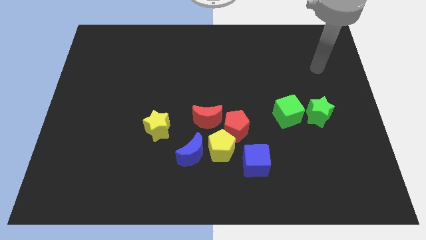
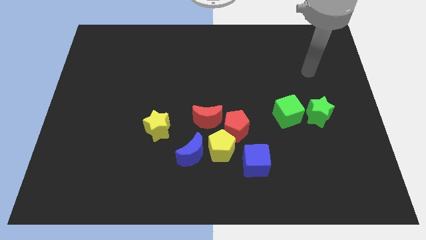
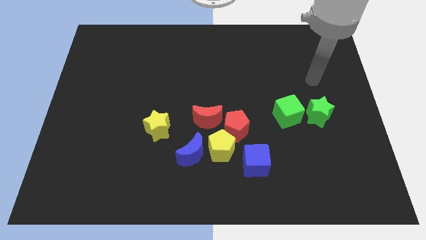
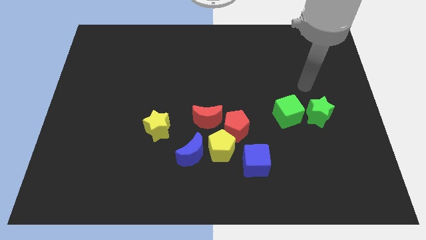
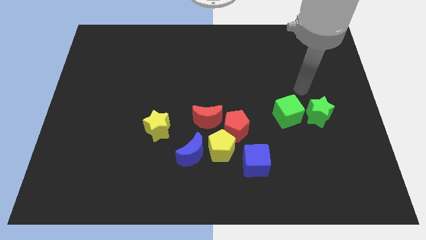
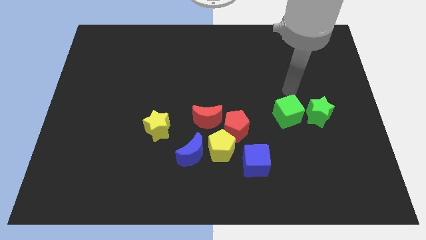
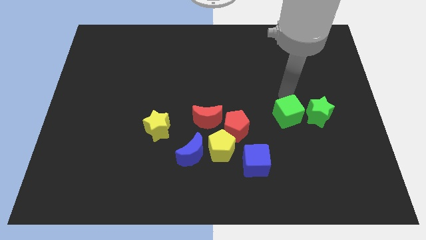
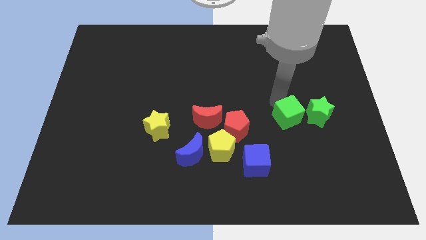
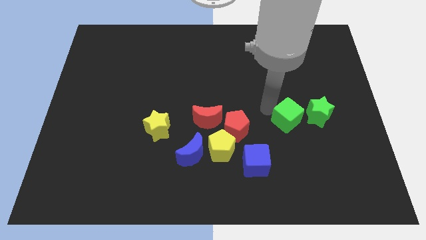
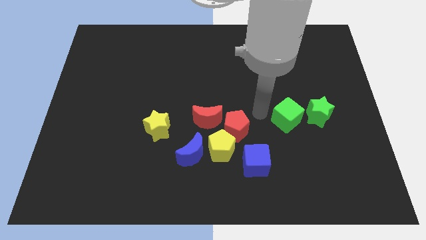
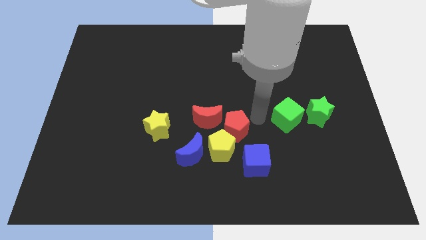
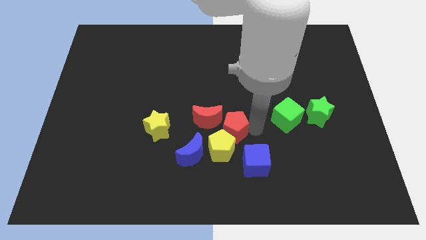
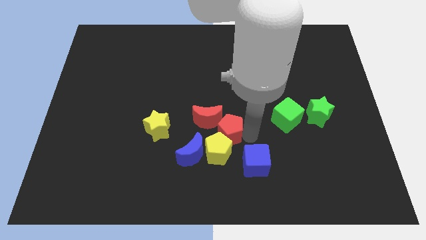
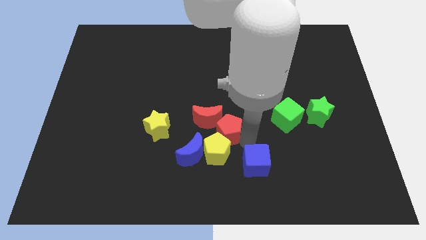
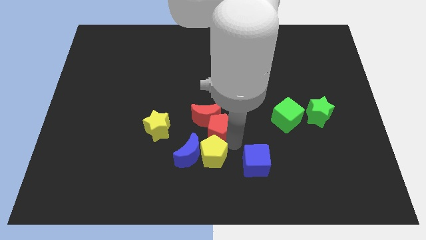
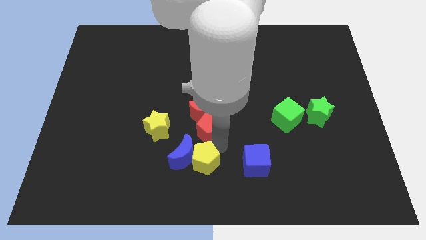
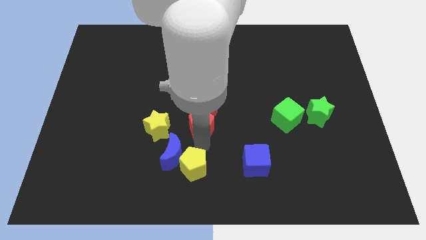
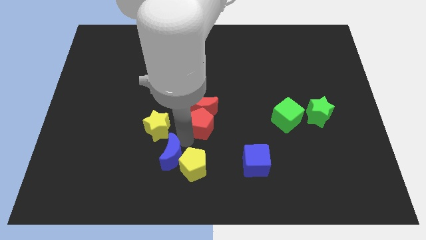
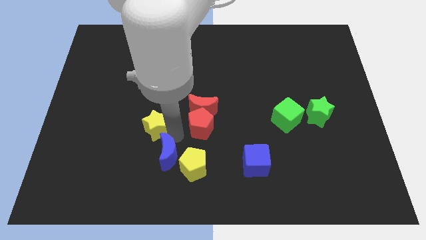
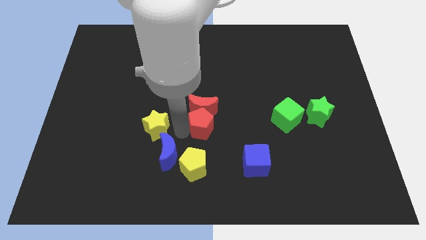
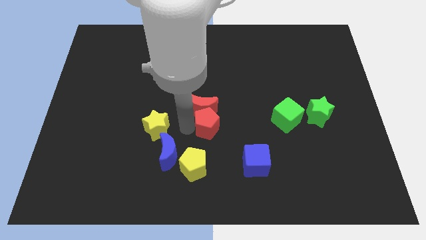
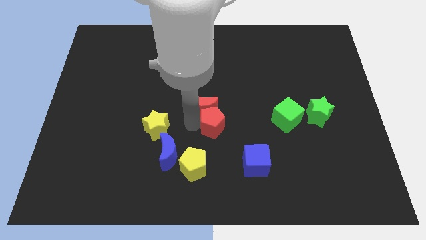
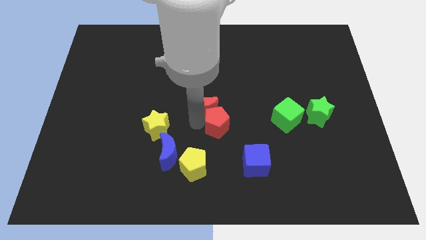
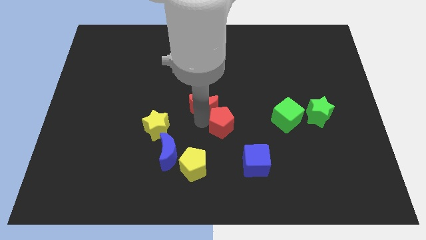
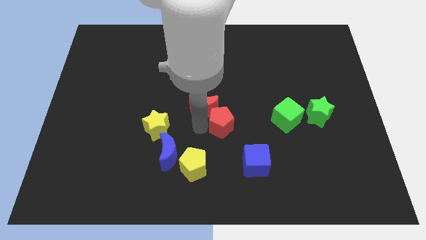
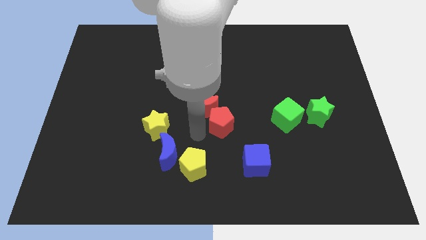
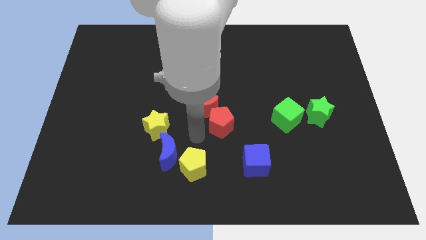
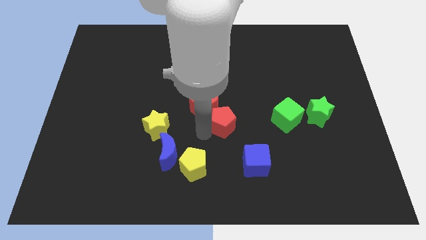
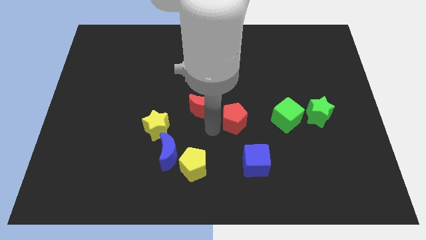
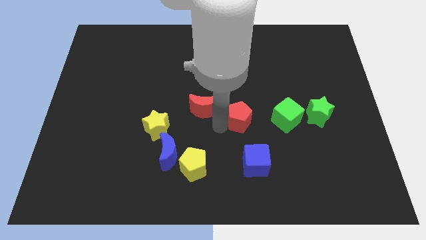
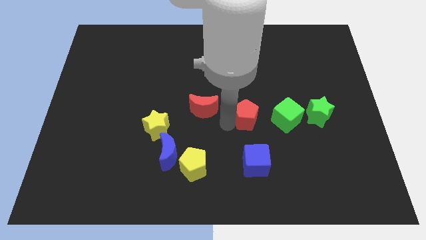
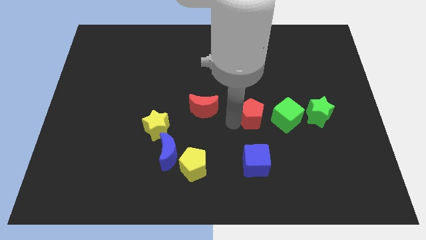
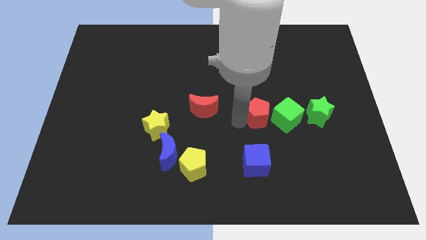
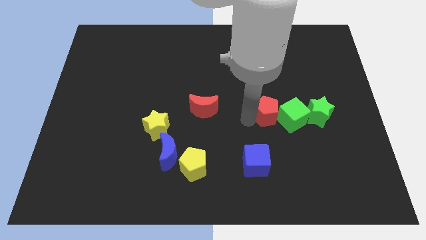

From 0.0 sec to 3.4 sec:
push the red pentagon slightly up and to the right diagonally

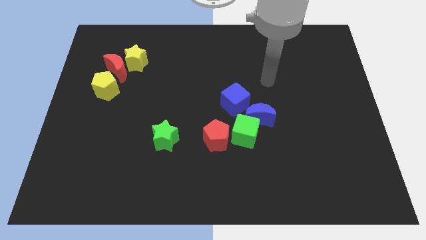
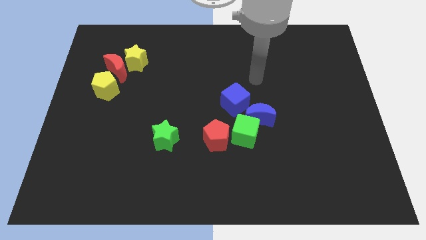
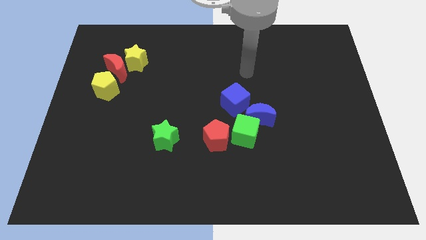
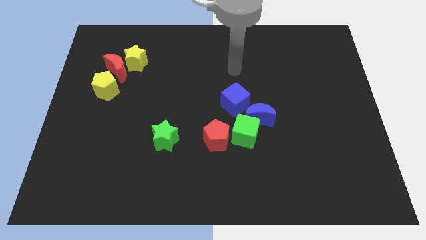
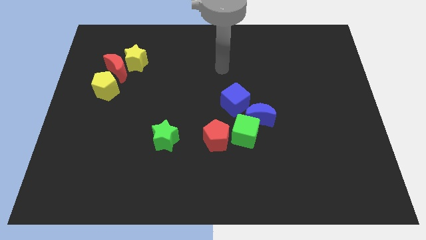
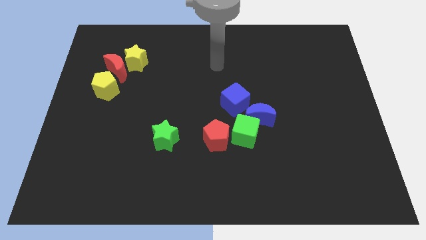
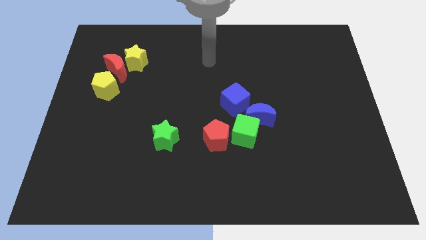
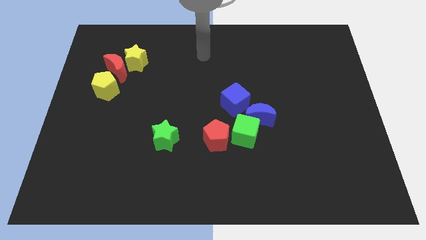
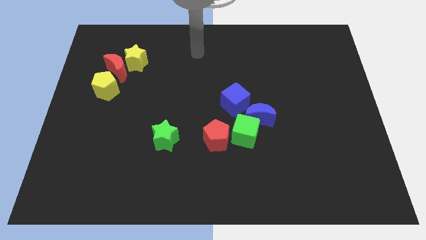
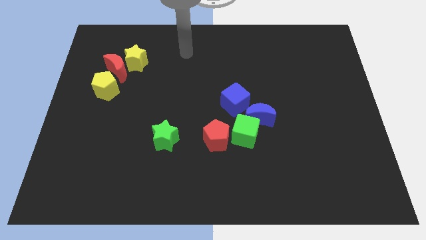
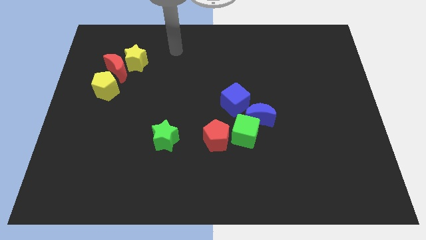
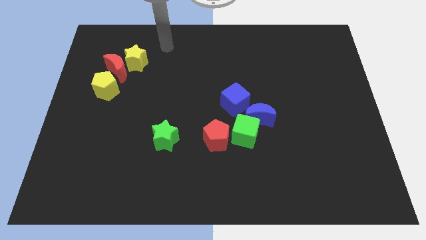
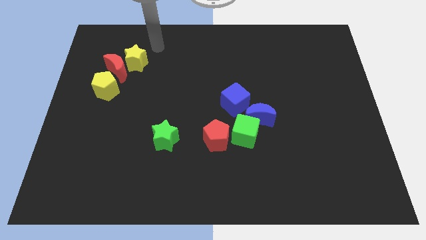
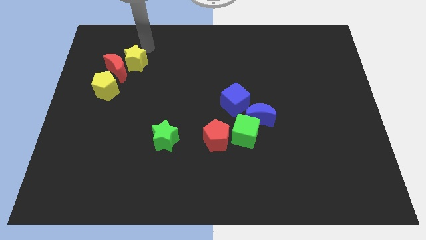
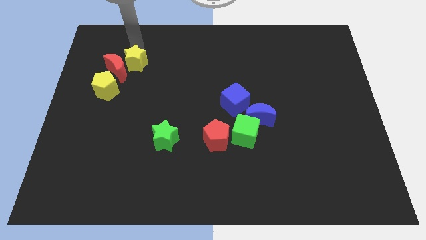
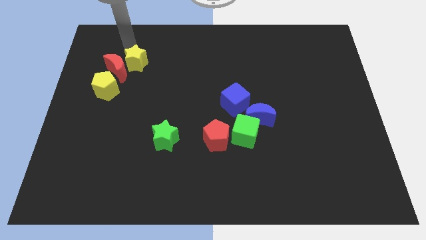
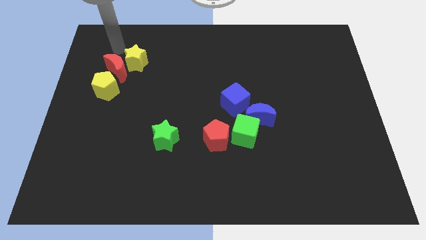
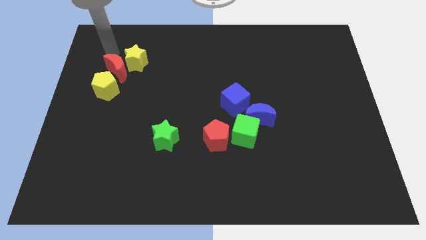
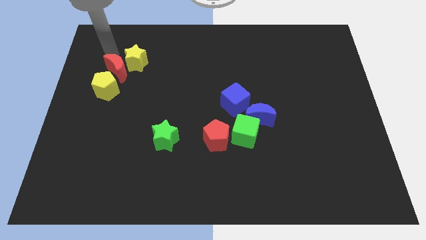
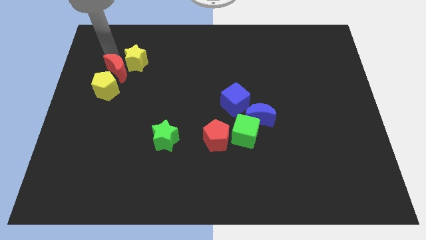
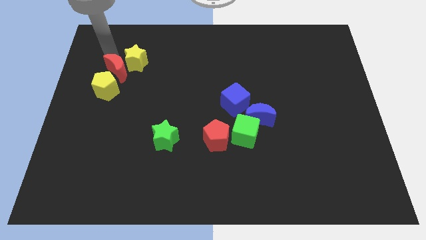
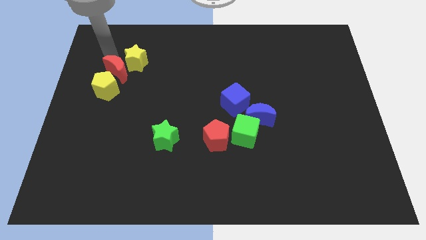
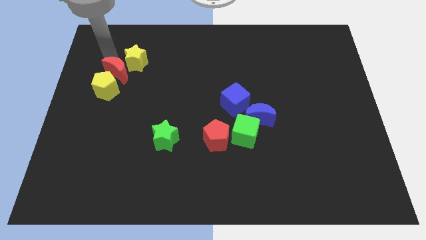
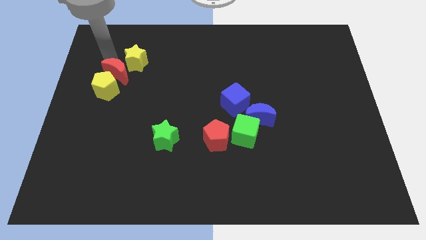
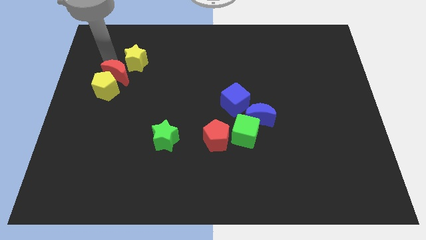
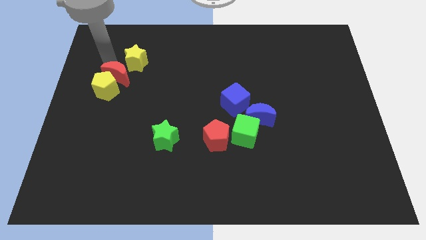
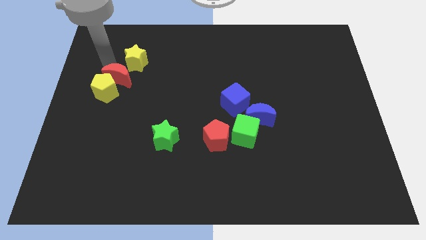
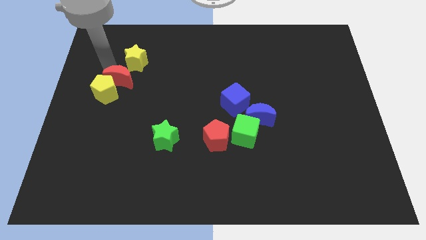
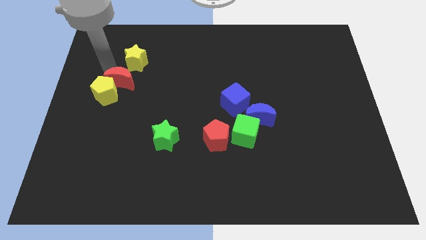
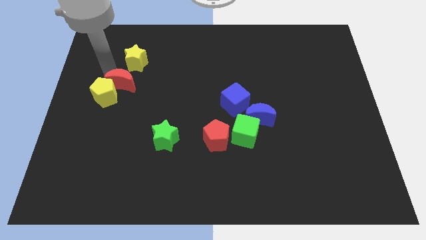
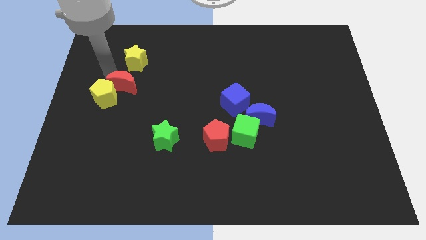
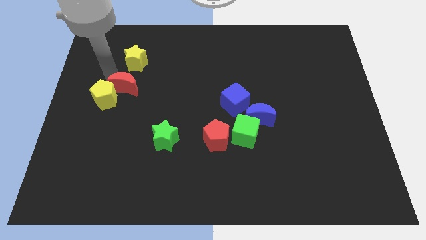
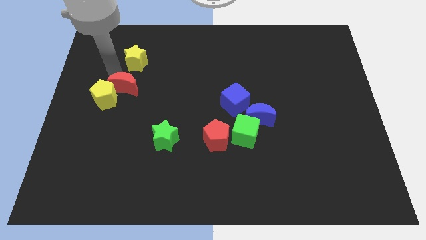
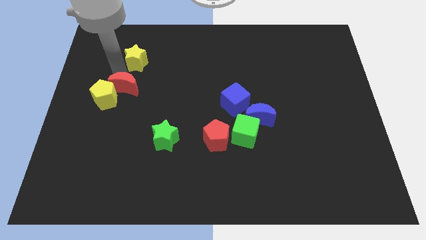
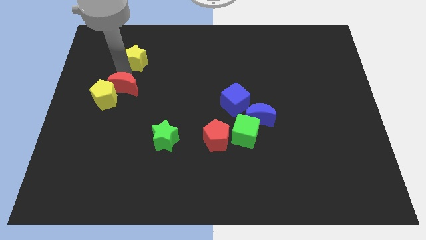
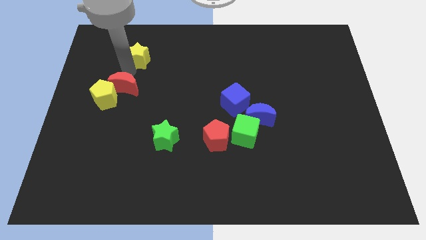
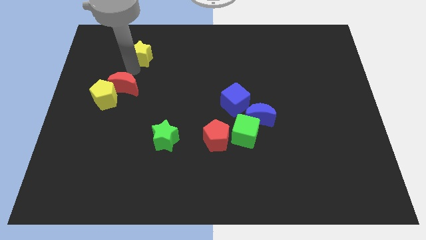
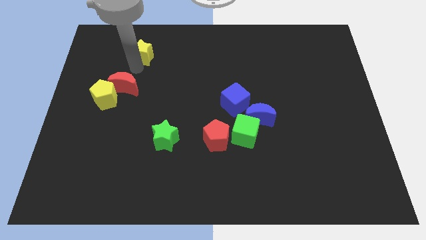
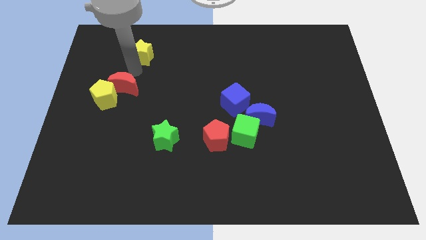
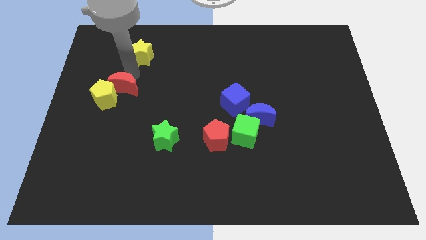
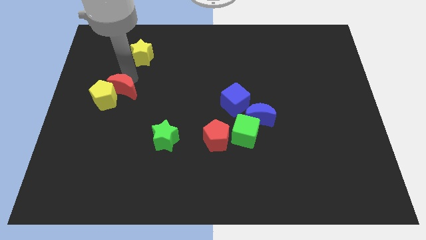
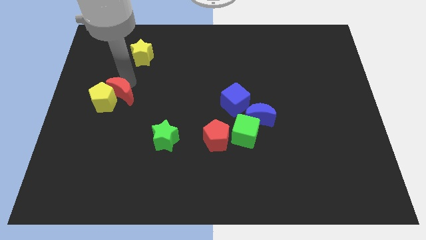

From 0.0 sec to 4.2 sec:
push the red moon down a bit

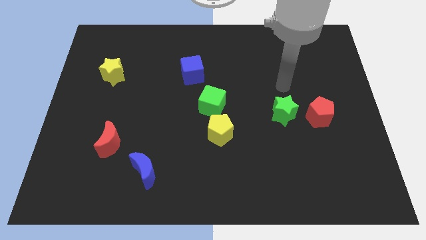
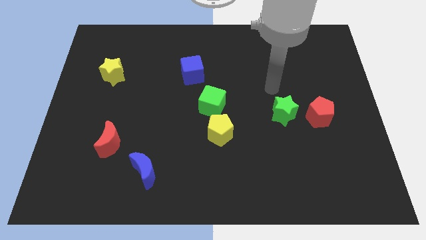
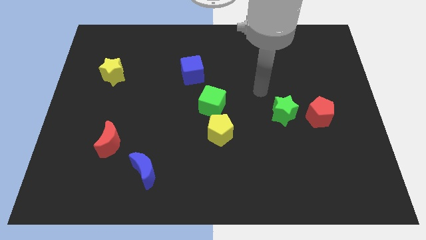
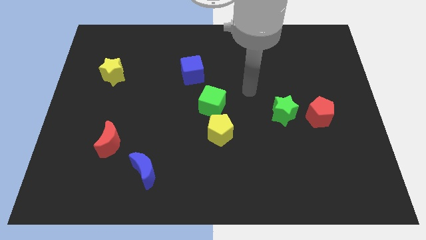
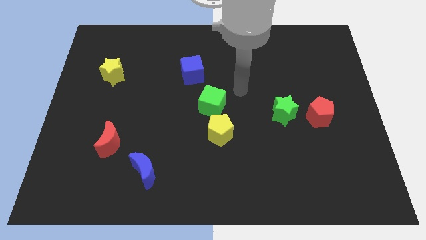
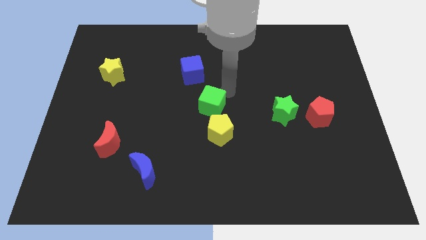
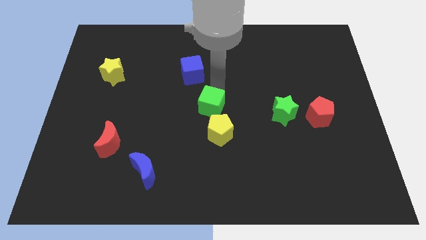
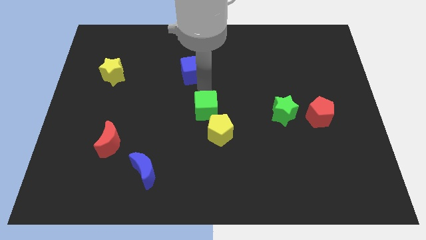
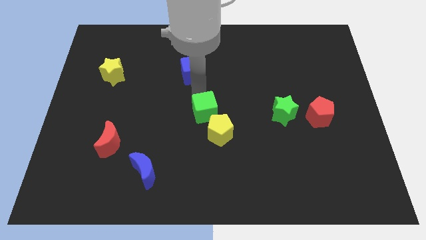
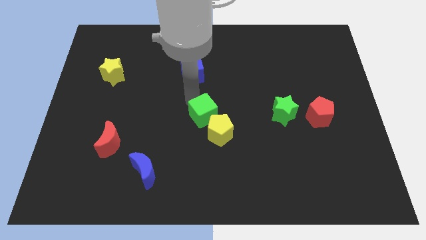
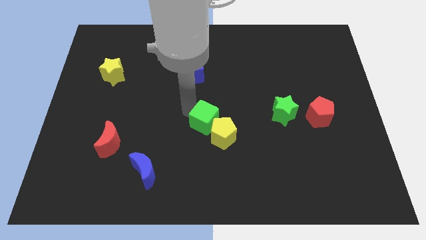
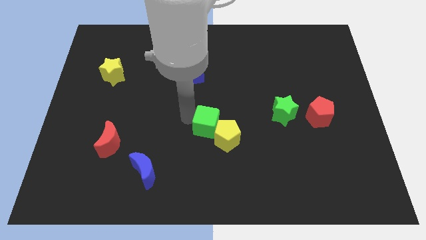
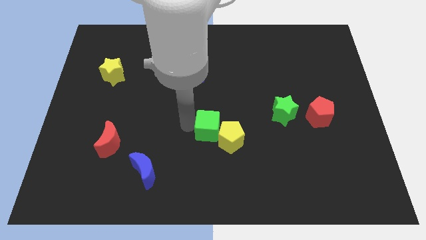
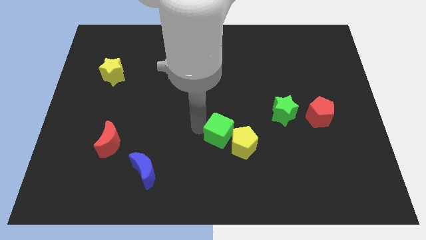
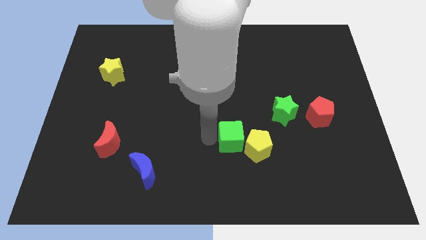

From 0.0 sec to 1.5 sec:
push the yellow pentagon a little bit to the right
